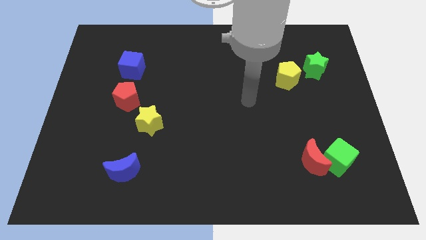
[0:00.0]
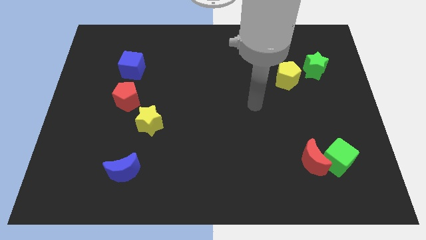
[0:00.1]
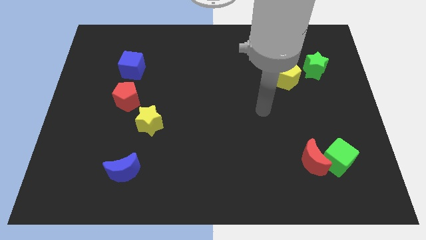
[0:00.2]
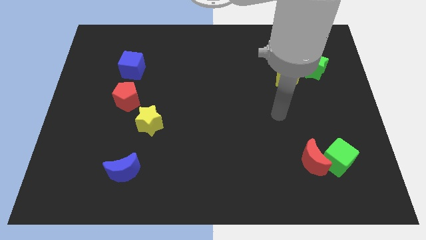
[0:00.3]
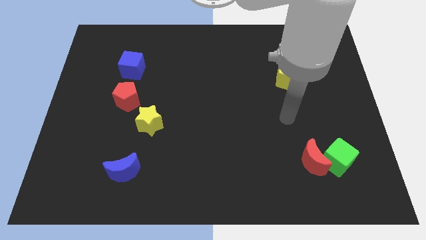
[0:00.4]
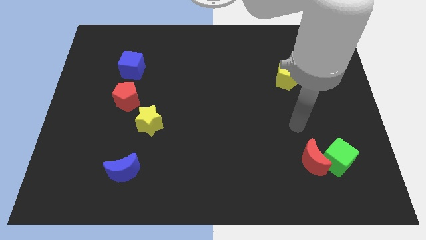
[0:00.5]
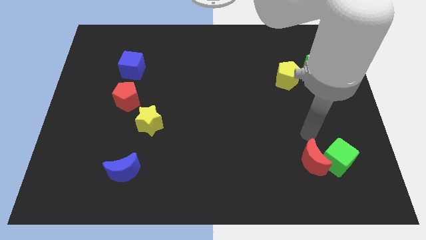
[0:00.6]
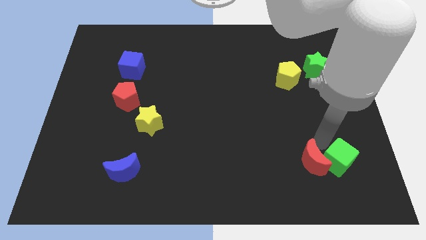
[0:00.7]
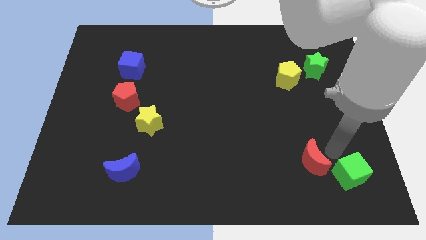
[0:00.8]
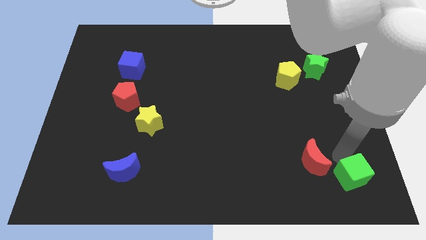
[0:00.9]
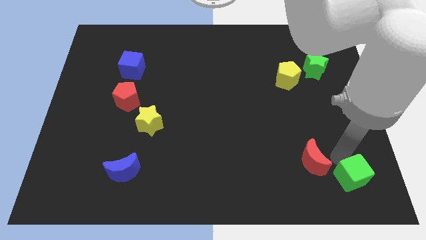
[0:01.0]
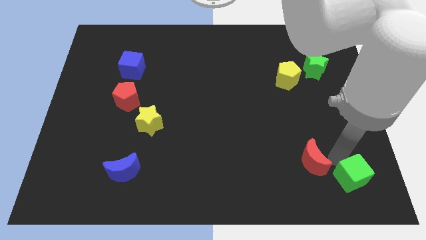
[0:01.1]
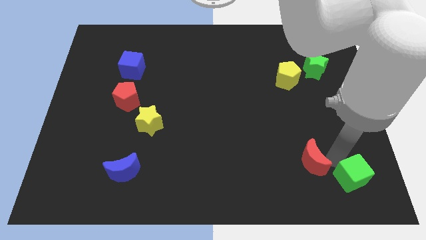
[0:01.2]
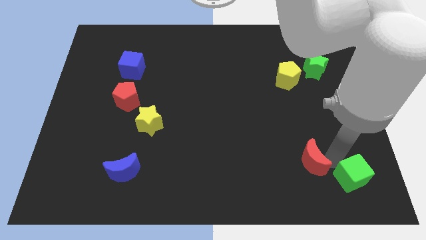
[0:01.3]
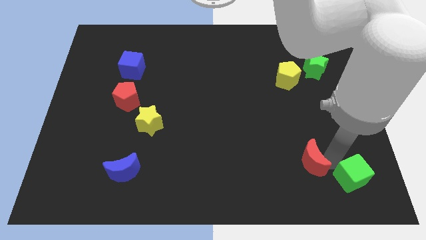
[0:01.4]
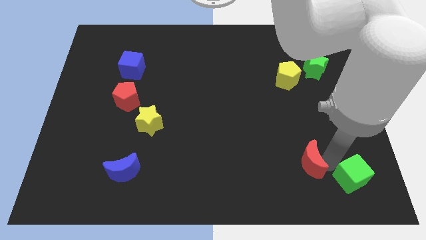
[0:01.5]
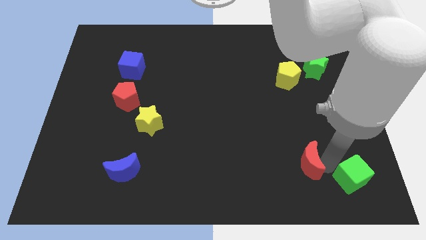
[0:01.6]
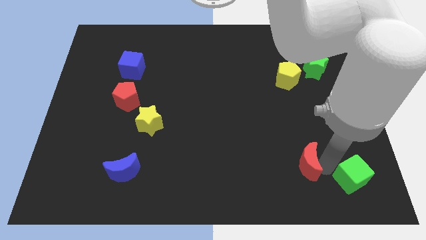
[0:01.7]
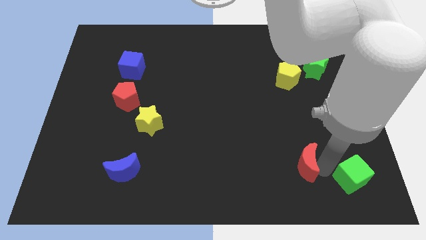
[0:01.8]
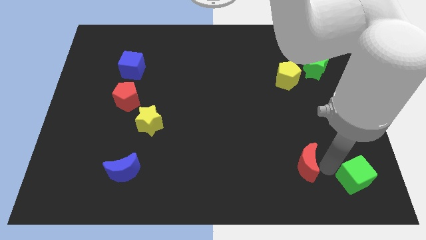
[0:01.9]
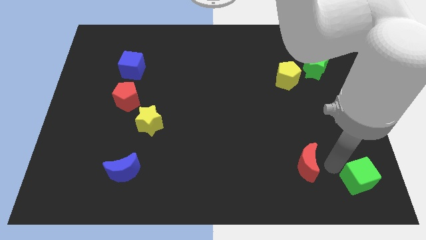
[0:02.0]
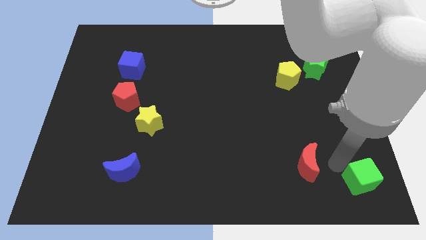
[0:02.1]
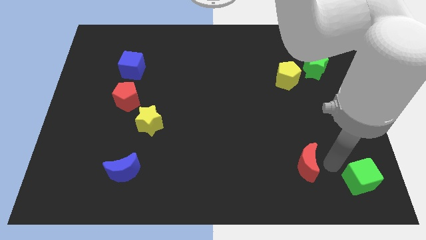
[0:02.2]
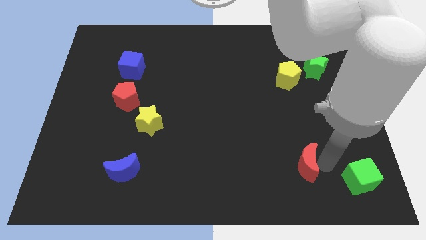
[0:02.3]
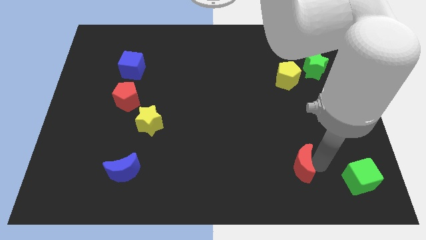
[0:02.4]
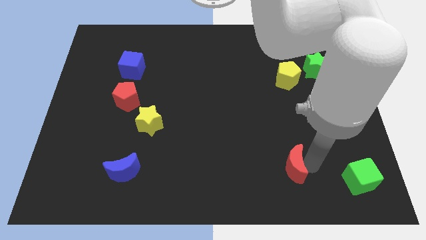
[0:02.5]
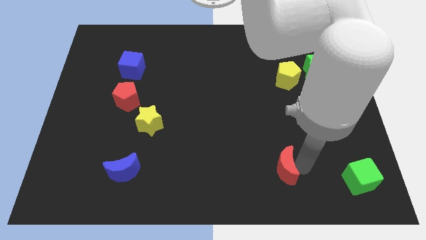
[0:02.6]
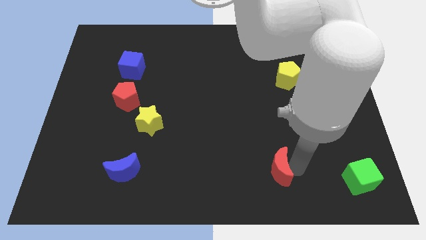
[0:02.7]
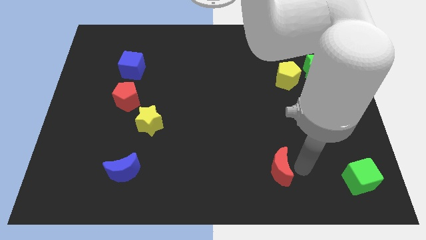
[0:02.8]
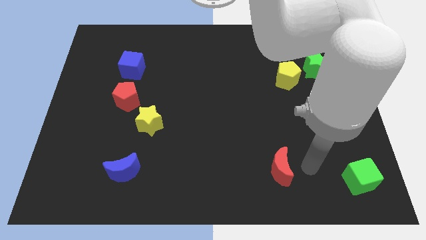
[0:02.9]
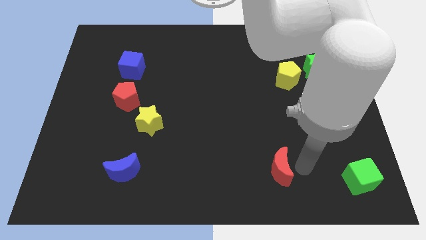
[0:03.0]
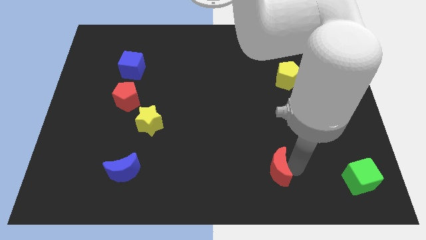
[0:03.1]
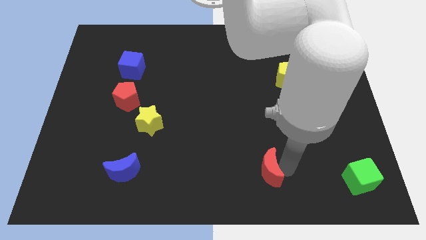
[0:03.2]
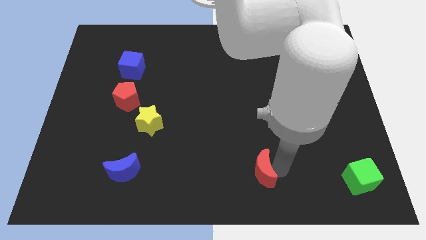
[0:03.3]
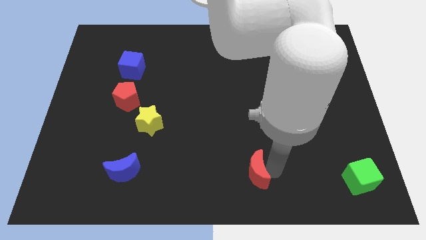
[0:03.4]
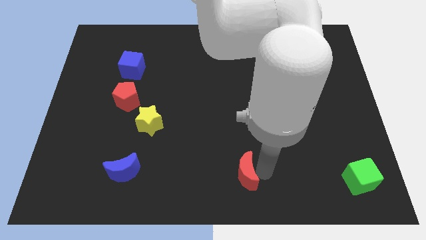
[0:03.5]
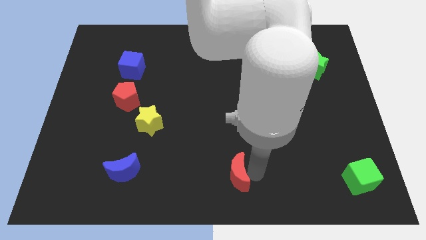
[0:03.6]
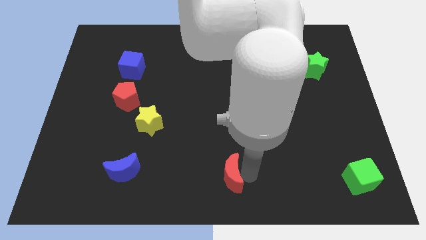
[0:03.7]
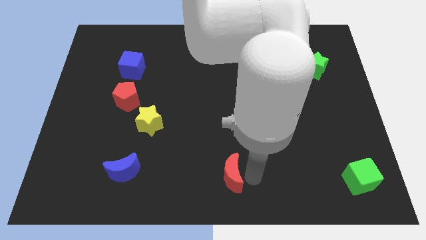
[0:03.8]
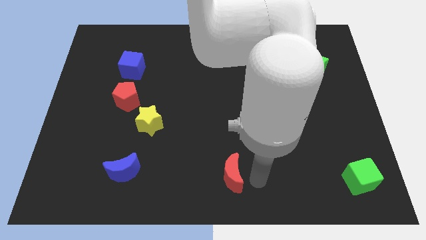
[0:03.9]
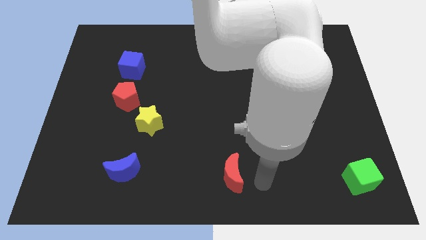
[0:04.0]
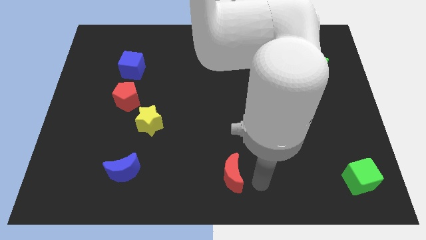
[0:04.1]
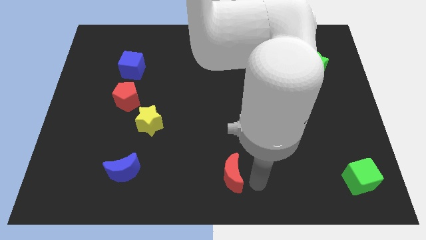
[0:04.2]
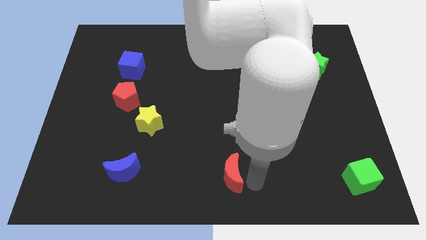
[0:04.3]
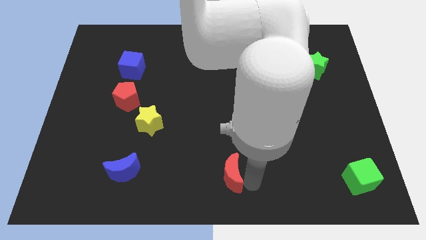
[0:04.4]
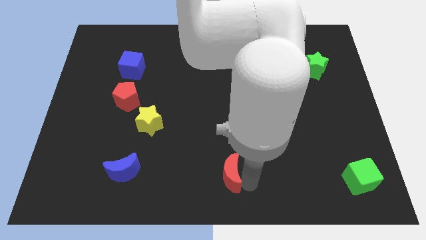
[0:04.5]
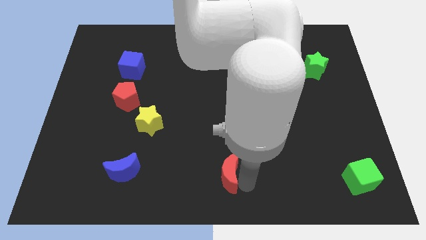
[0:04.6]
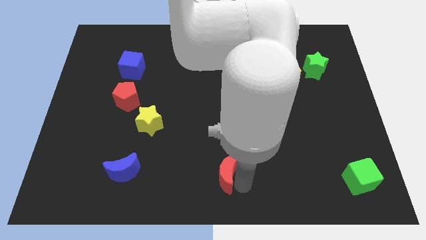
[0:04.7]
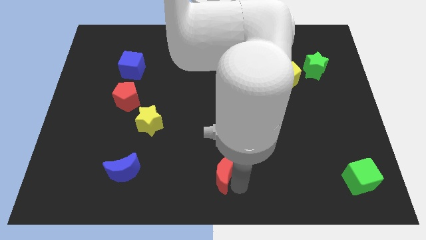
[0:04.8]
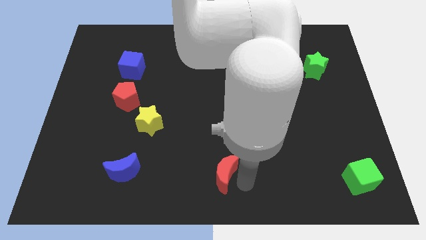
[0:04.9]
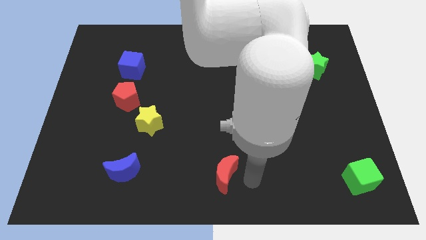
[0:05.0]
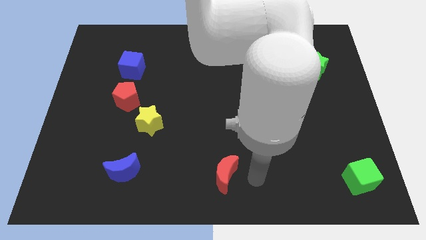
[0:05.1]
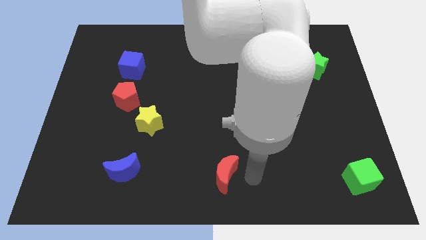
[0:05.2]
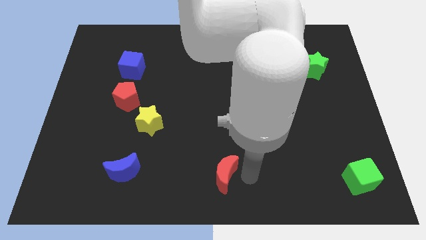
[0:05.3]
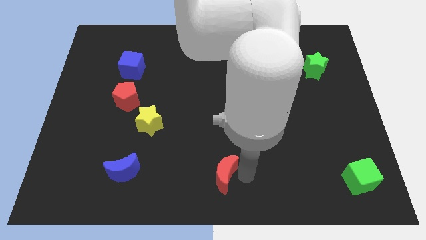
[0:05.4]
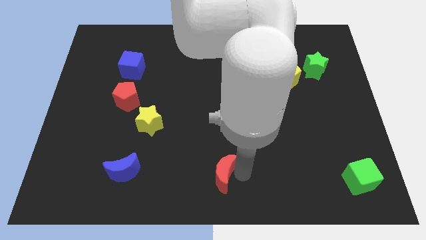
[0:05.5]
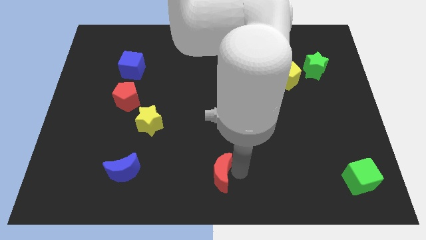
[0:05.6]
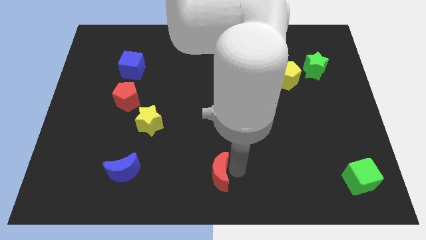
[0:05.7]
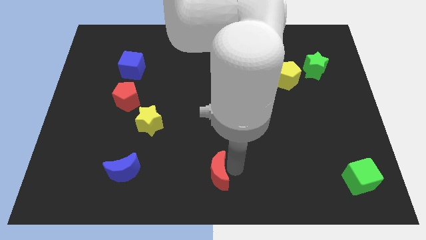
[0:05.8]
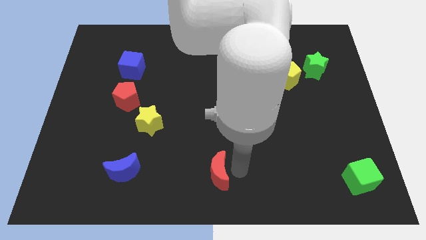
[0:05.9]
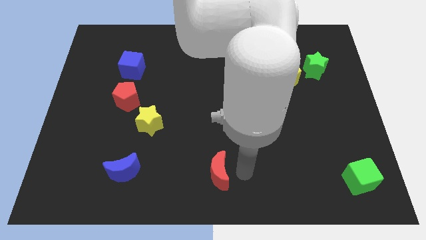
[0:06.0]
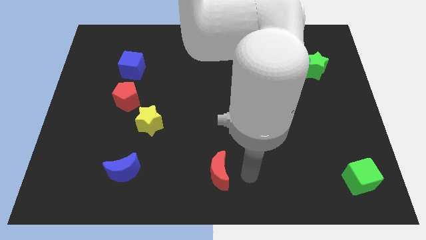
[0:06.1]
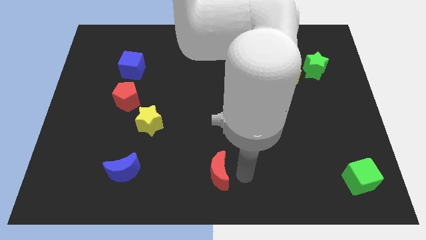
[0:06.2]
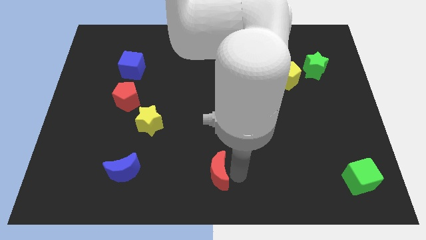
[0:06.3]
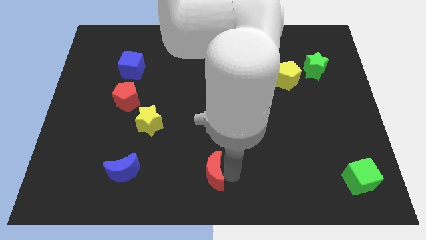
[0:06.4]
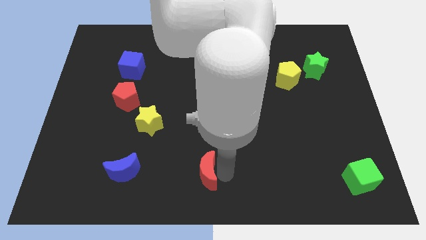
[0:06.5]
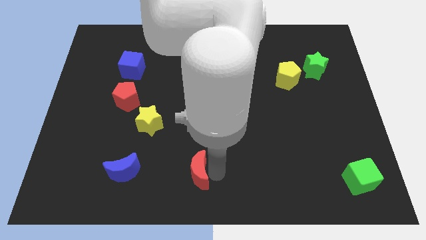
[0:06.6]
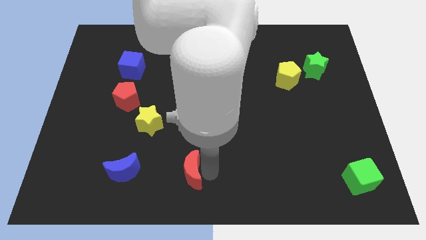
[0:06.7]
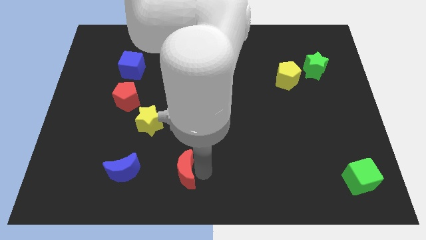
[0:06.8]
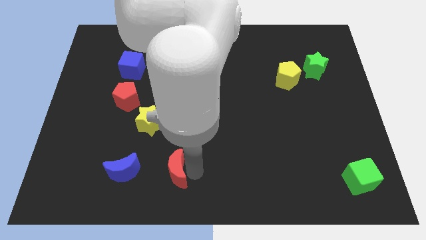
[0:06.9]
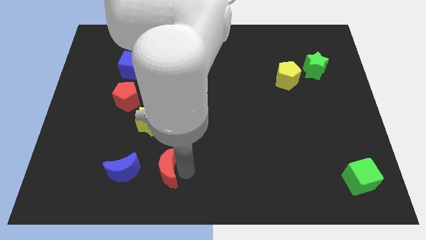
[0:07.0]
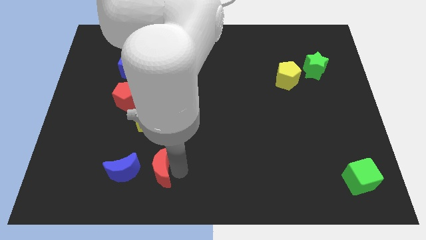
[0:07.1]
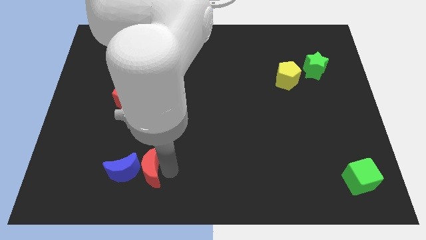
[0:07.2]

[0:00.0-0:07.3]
push the red moon next to the blue moon
